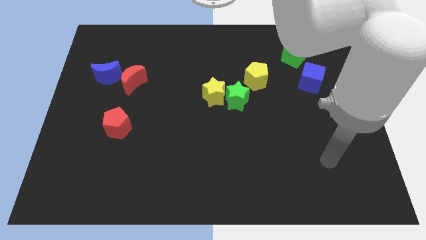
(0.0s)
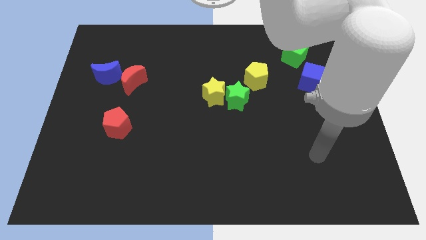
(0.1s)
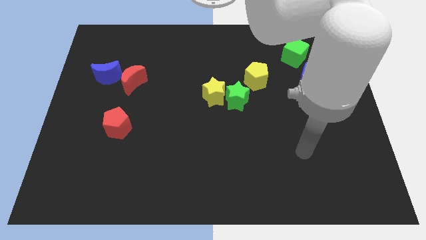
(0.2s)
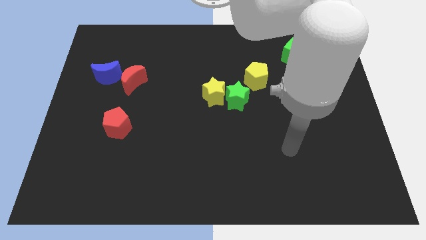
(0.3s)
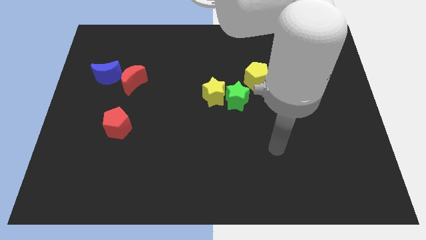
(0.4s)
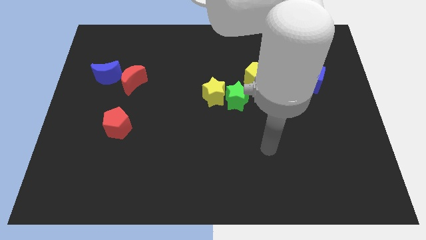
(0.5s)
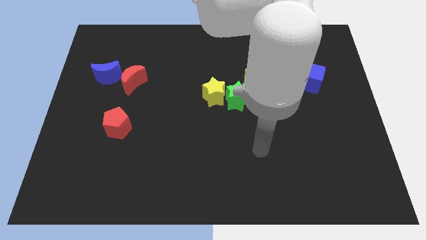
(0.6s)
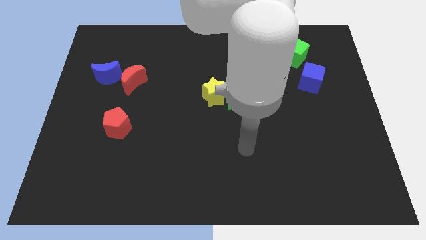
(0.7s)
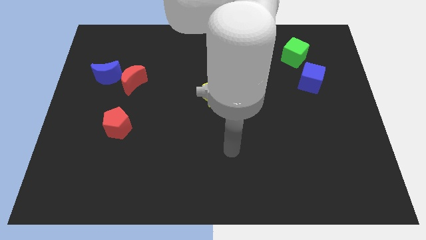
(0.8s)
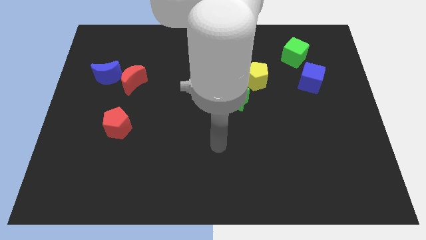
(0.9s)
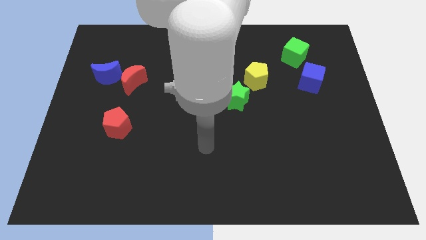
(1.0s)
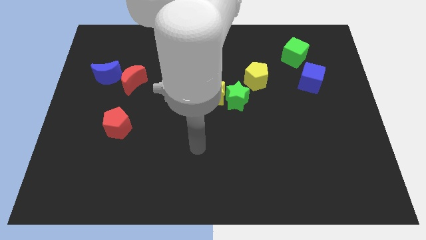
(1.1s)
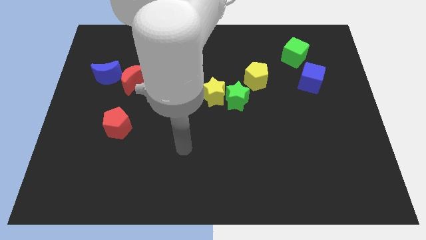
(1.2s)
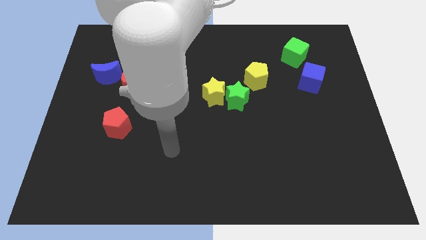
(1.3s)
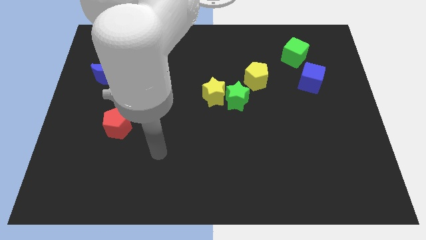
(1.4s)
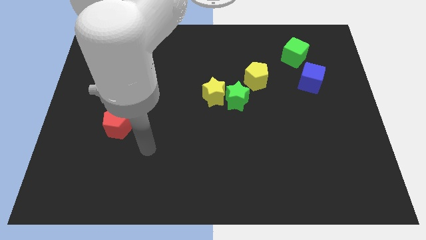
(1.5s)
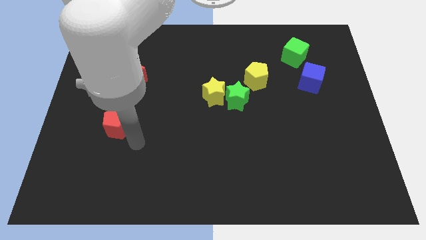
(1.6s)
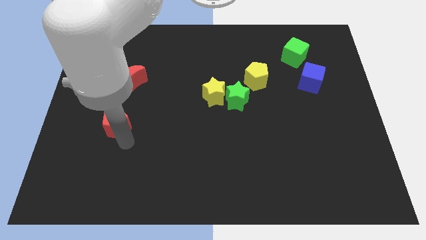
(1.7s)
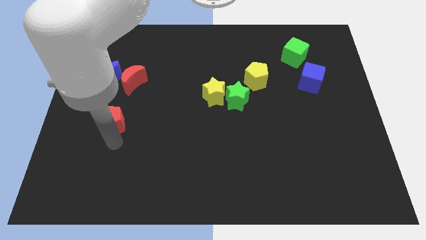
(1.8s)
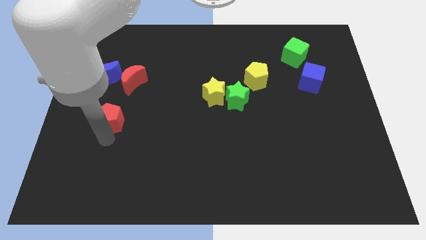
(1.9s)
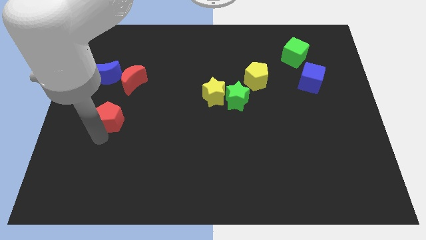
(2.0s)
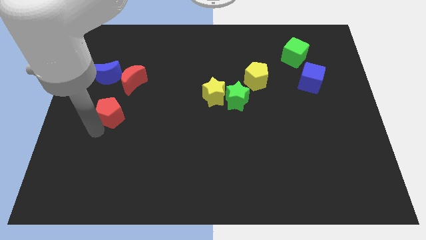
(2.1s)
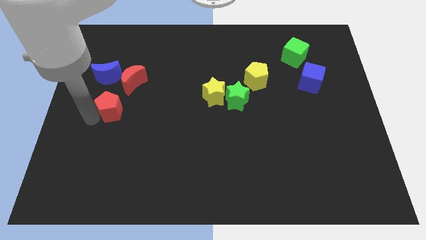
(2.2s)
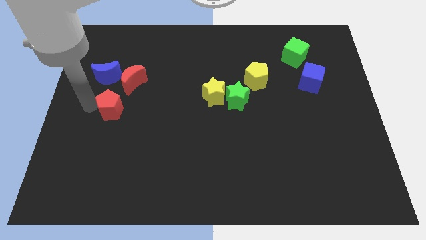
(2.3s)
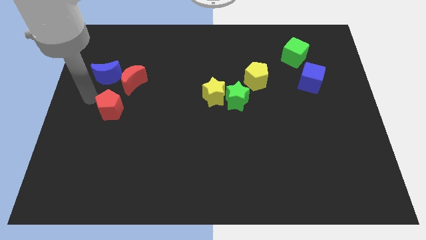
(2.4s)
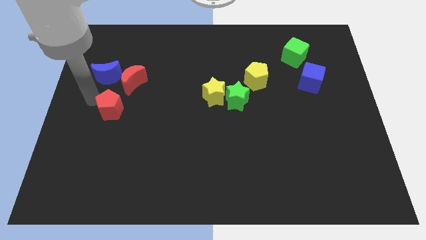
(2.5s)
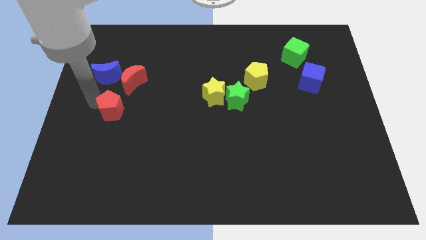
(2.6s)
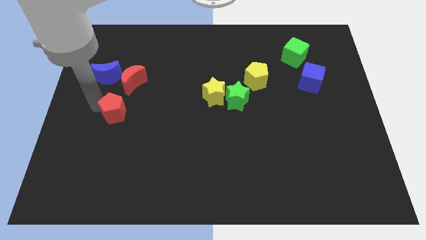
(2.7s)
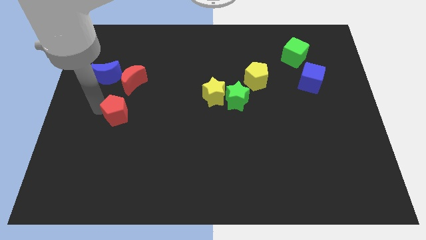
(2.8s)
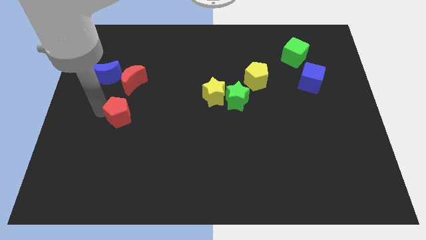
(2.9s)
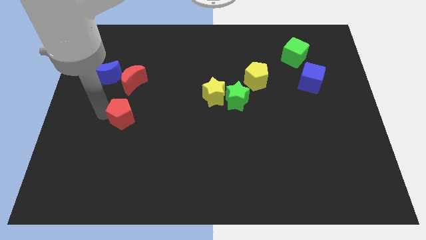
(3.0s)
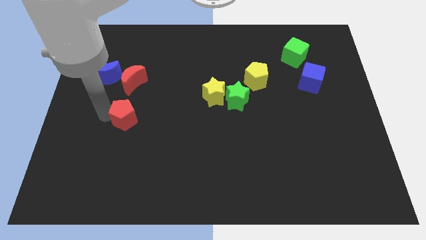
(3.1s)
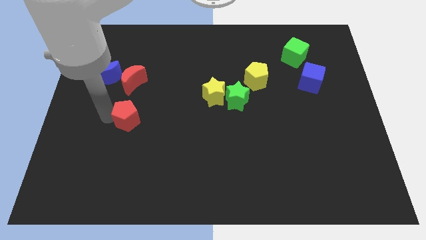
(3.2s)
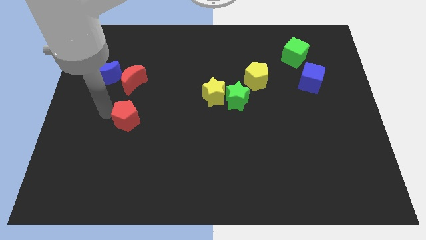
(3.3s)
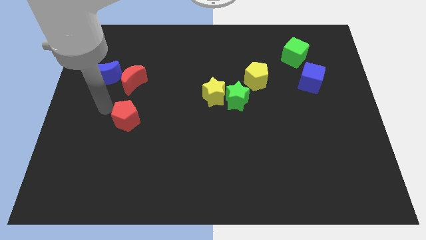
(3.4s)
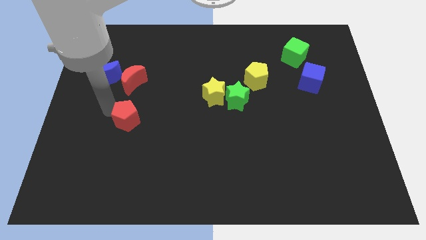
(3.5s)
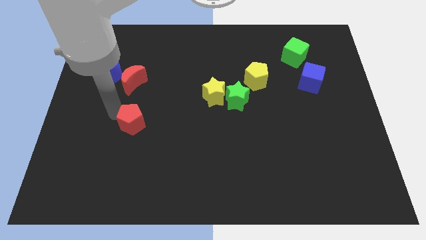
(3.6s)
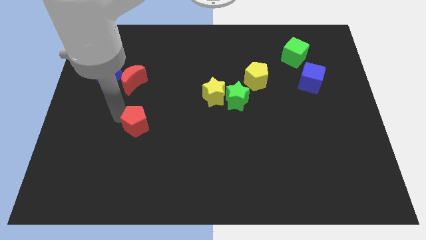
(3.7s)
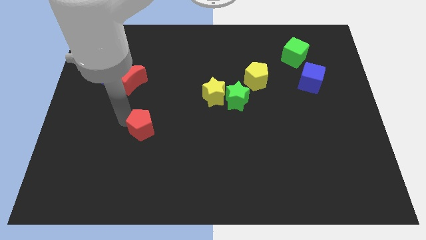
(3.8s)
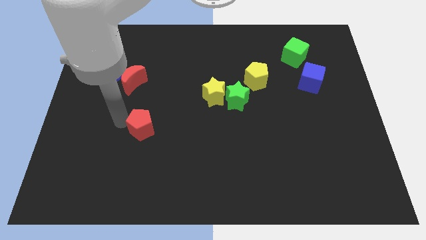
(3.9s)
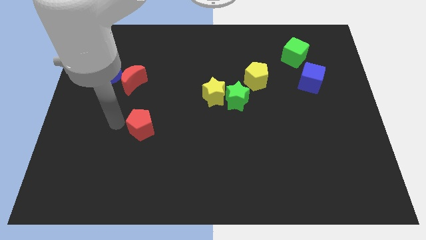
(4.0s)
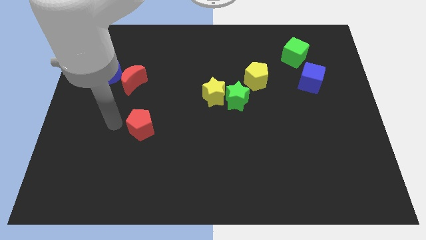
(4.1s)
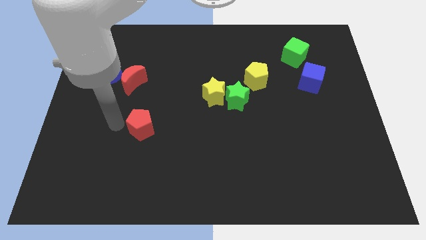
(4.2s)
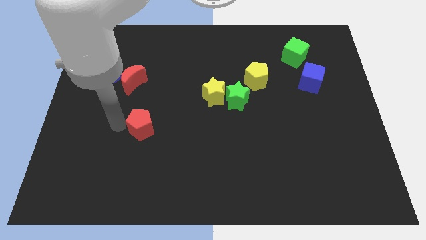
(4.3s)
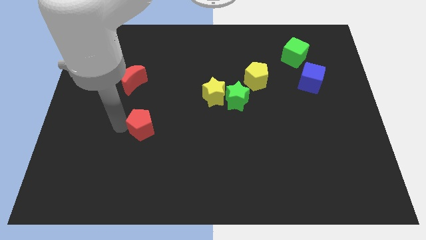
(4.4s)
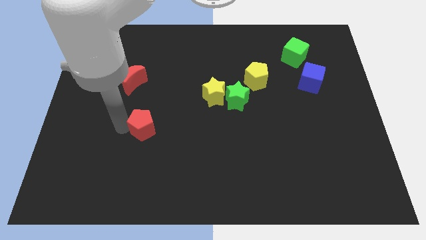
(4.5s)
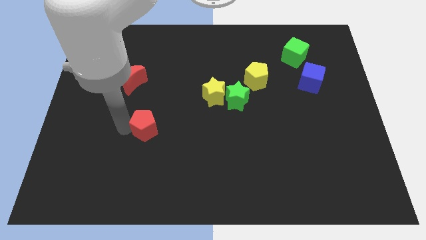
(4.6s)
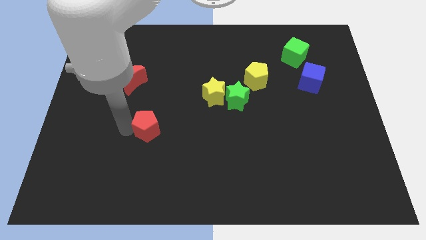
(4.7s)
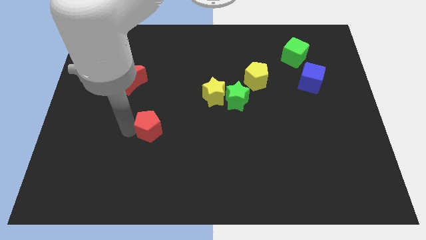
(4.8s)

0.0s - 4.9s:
move the red pentagon to the right somewhat

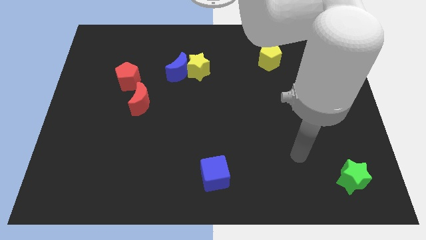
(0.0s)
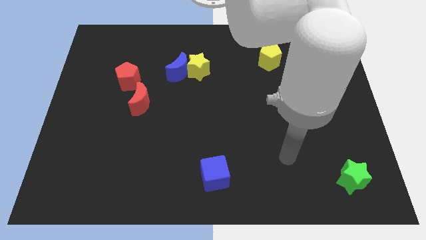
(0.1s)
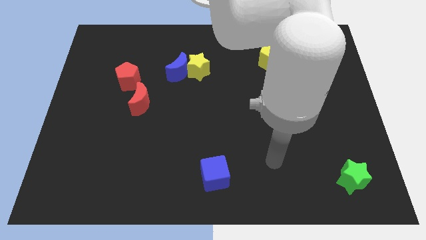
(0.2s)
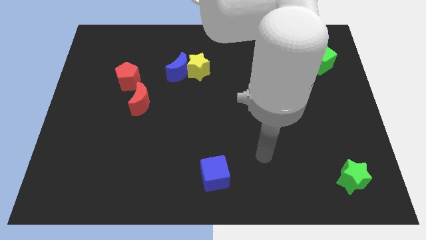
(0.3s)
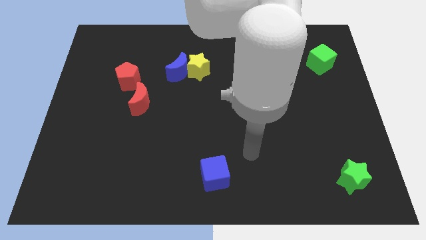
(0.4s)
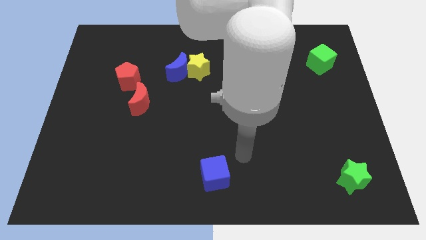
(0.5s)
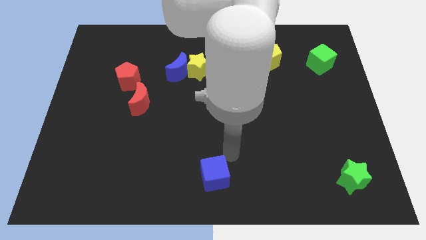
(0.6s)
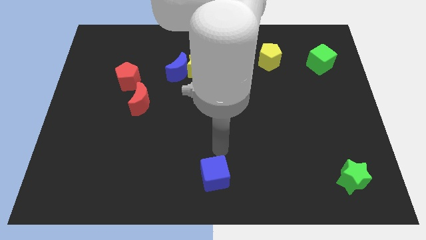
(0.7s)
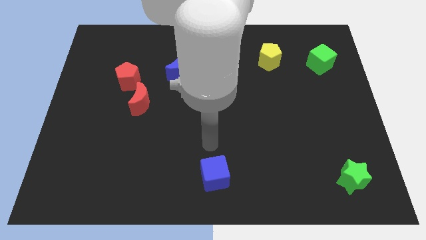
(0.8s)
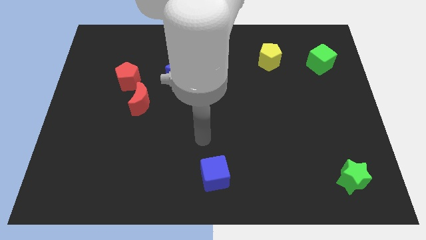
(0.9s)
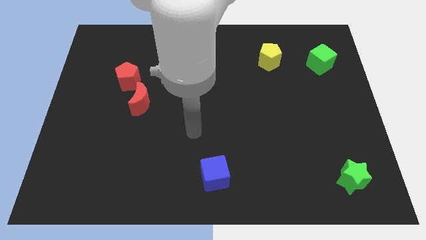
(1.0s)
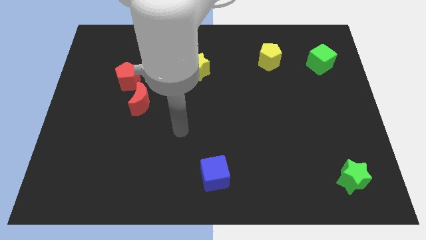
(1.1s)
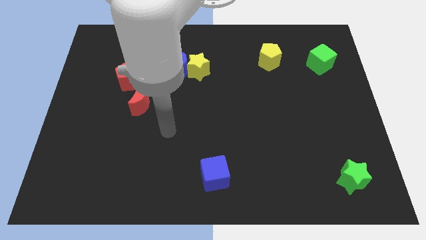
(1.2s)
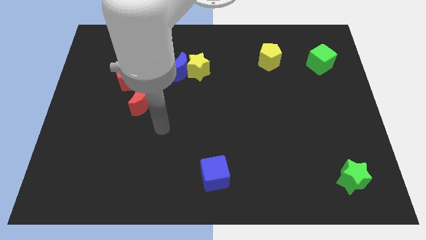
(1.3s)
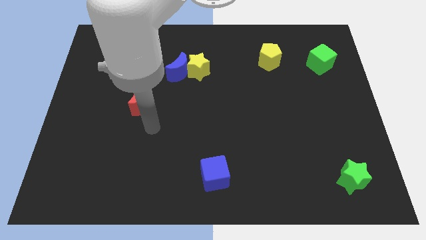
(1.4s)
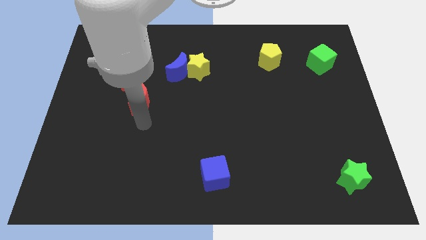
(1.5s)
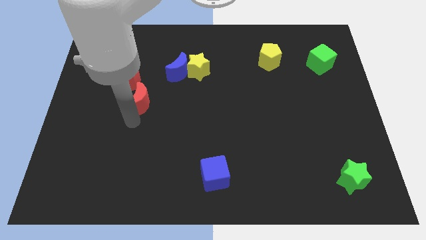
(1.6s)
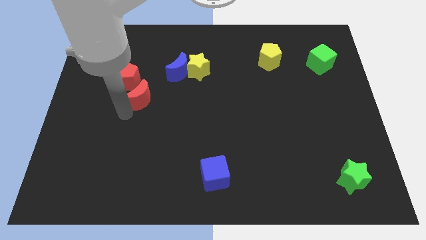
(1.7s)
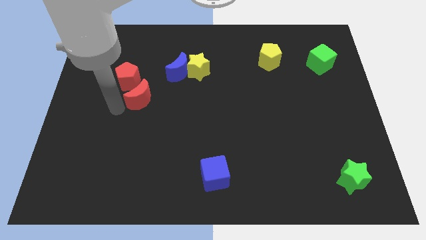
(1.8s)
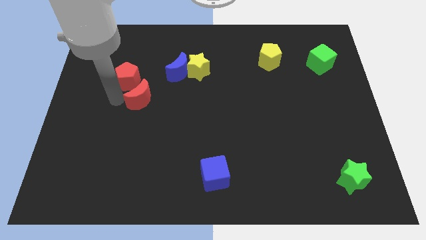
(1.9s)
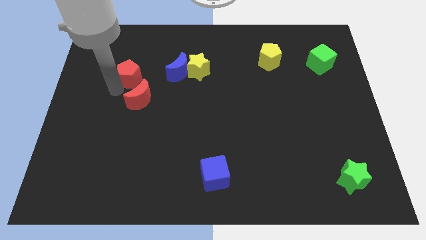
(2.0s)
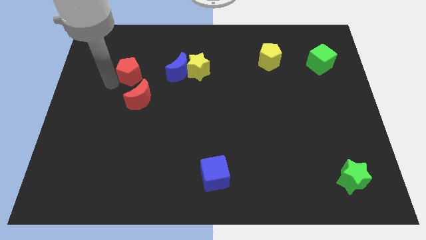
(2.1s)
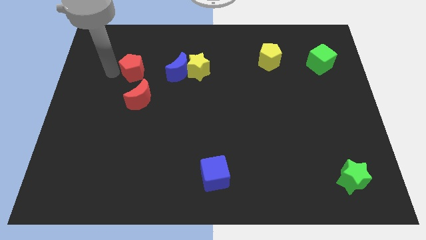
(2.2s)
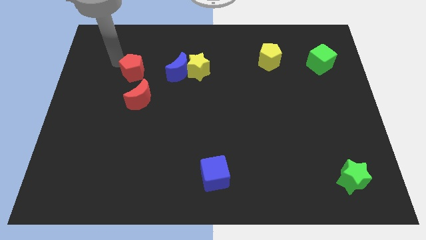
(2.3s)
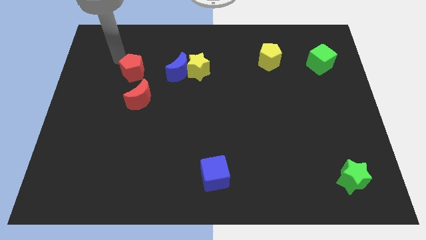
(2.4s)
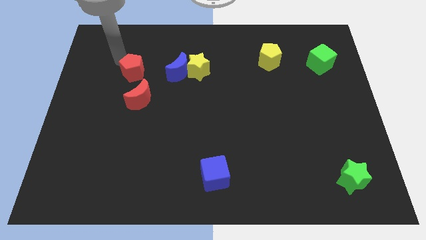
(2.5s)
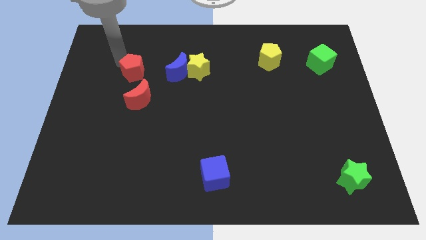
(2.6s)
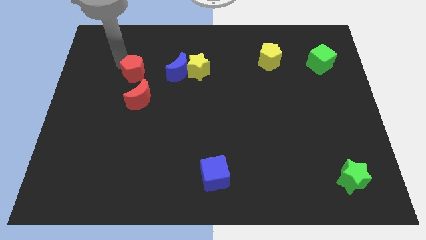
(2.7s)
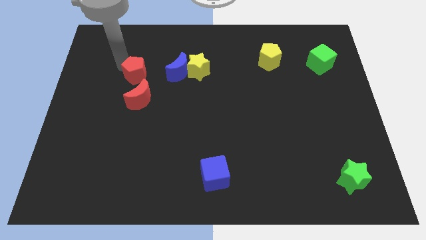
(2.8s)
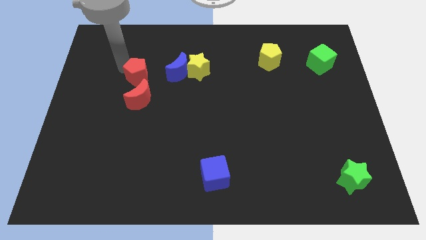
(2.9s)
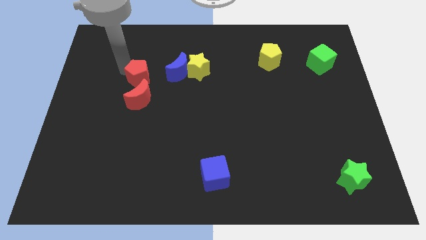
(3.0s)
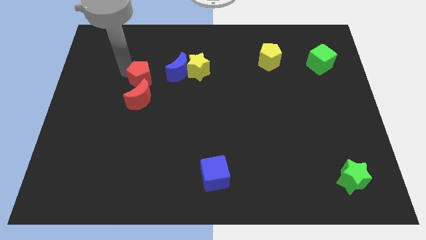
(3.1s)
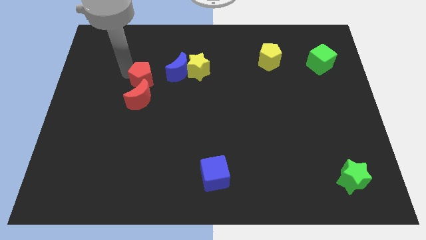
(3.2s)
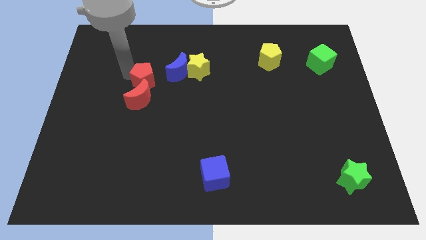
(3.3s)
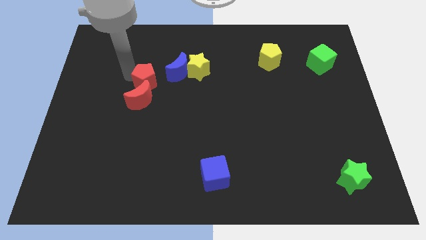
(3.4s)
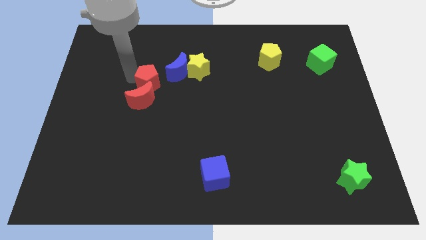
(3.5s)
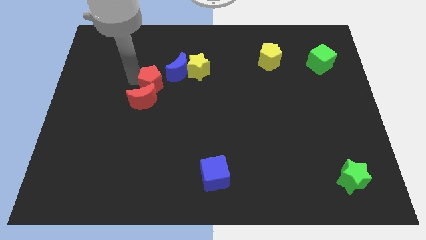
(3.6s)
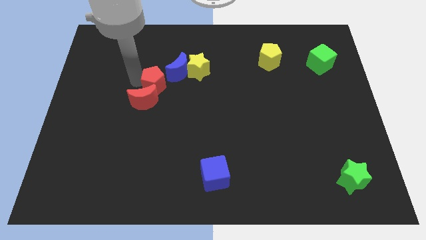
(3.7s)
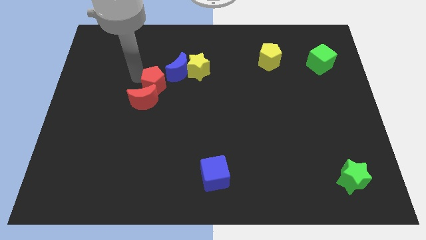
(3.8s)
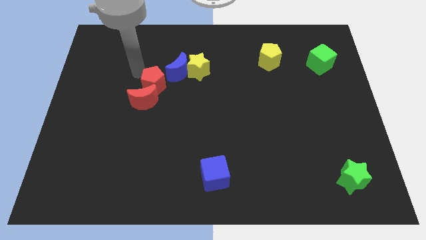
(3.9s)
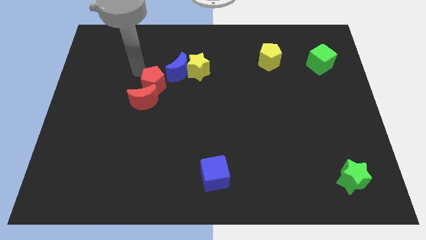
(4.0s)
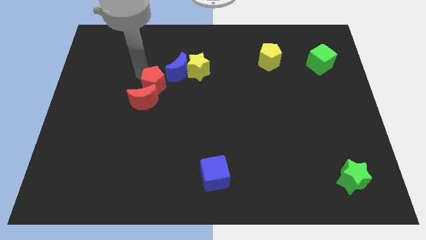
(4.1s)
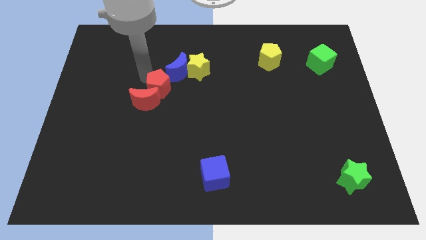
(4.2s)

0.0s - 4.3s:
slightly push the red pentagon down and then to the right
